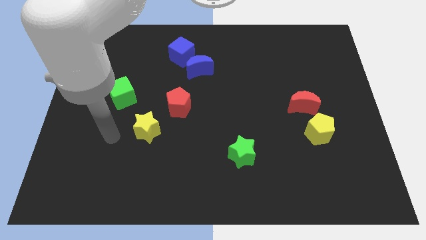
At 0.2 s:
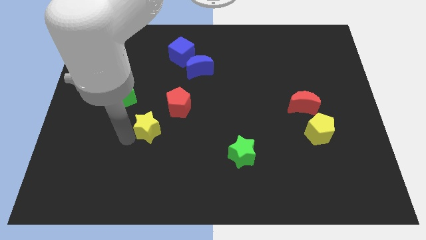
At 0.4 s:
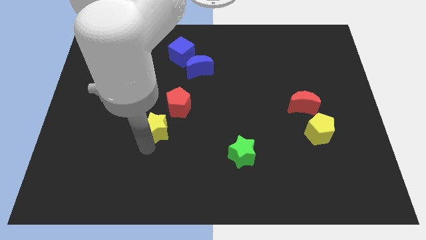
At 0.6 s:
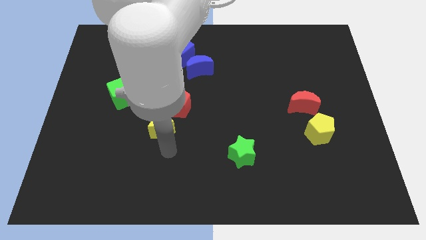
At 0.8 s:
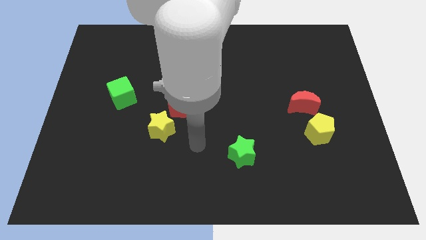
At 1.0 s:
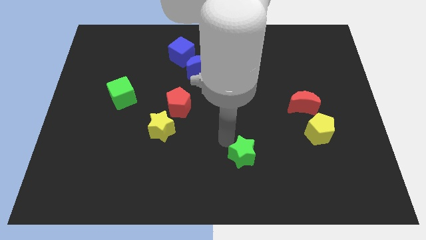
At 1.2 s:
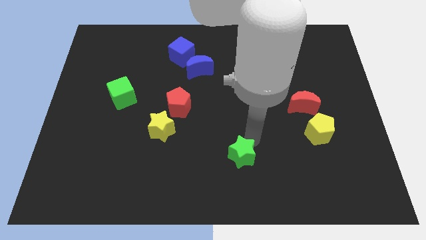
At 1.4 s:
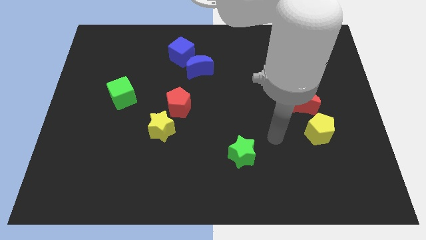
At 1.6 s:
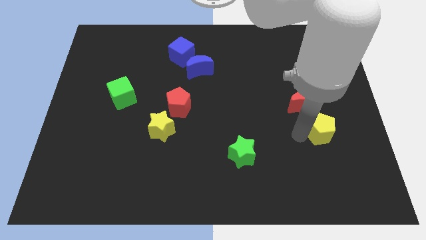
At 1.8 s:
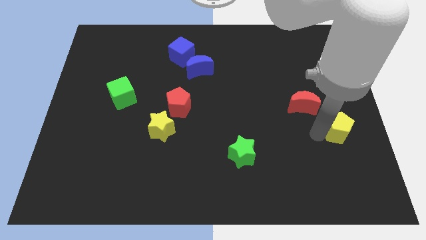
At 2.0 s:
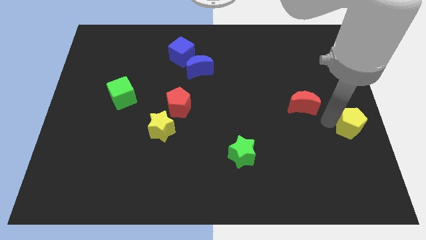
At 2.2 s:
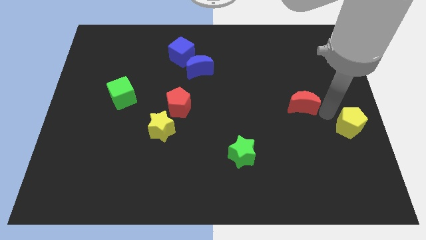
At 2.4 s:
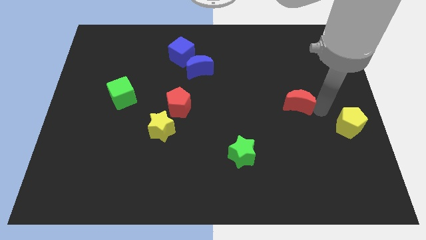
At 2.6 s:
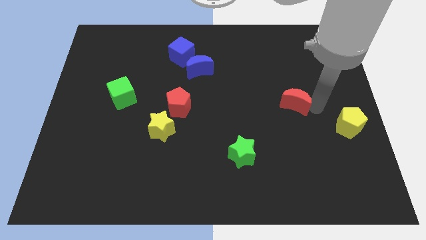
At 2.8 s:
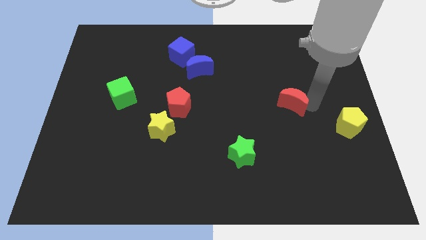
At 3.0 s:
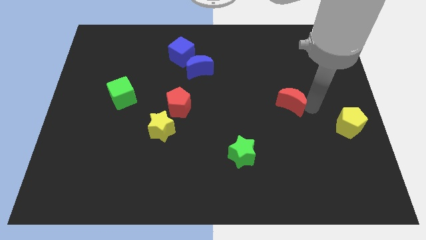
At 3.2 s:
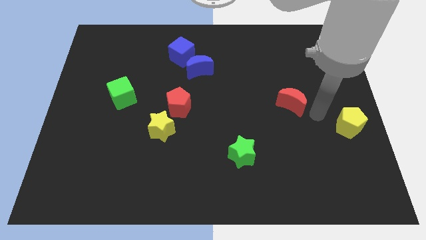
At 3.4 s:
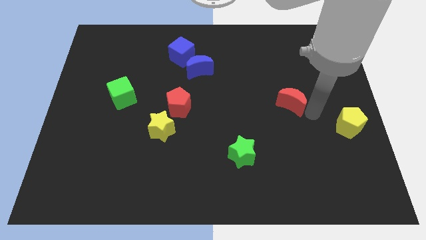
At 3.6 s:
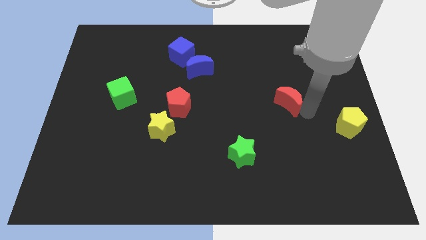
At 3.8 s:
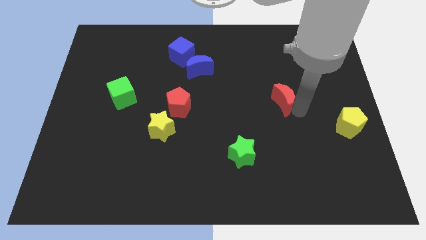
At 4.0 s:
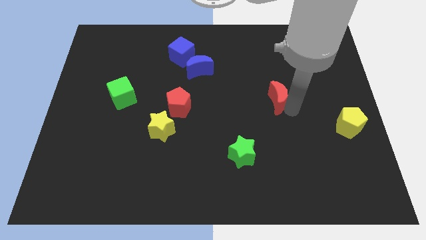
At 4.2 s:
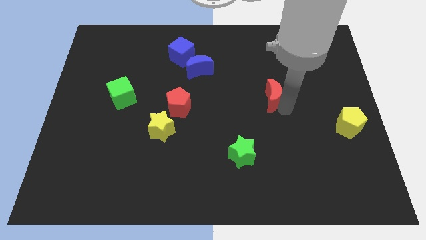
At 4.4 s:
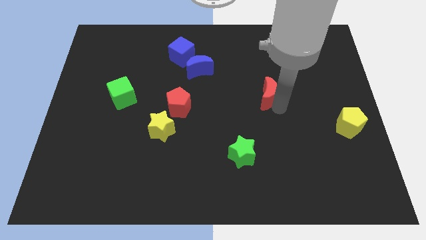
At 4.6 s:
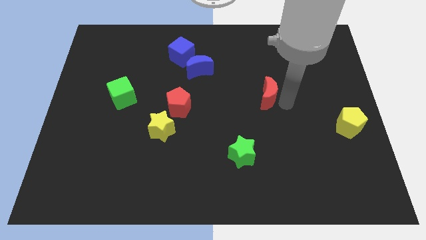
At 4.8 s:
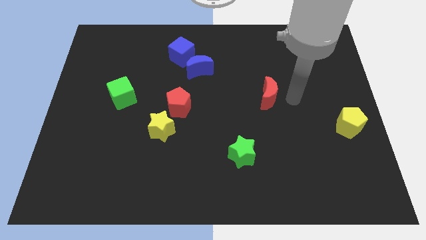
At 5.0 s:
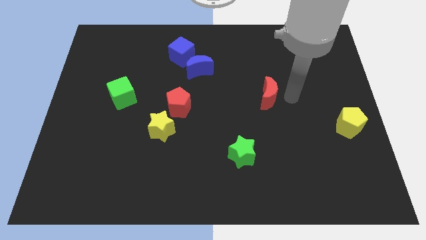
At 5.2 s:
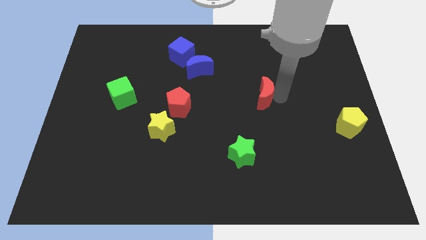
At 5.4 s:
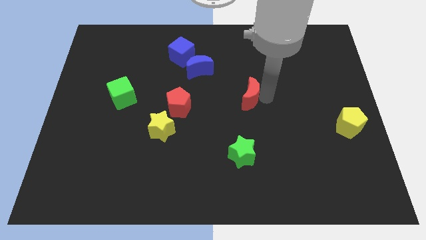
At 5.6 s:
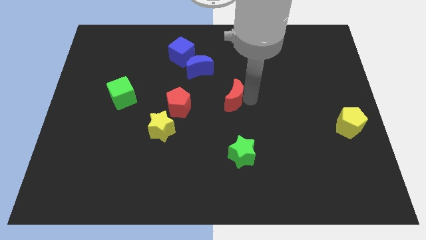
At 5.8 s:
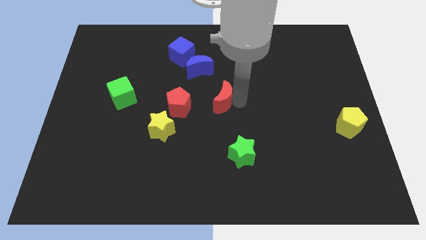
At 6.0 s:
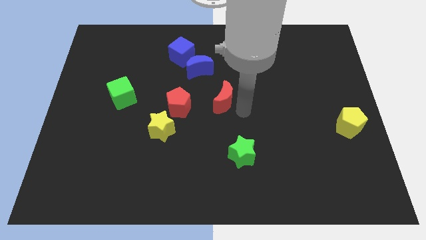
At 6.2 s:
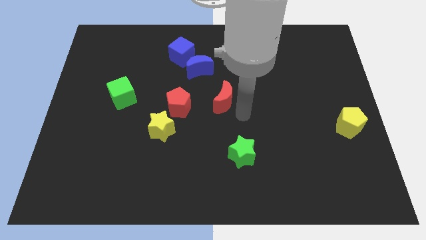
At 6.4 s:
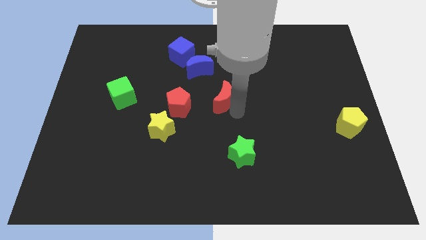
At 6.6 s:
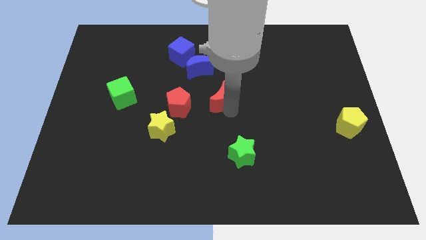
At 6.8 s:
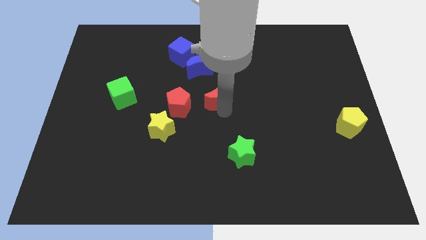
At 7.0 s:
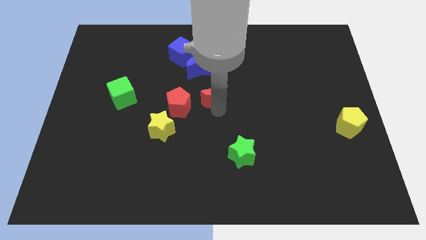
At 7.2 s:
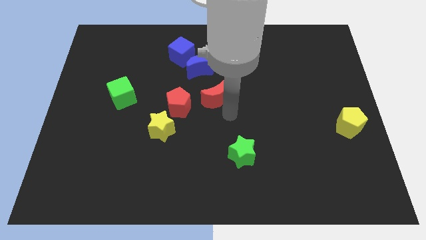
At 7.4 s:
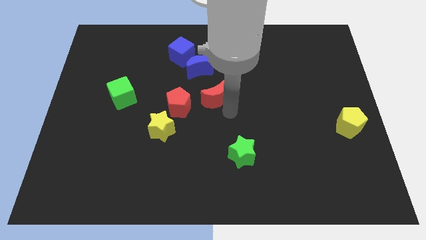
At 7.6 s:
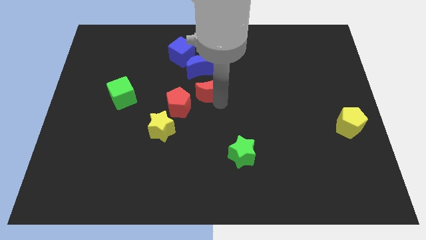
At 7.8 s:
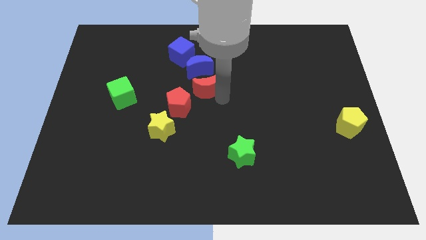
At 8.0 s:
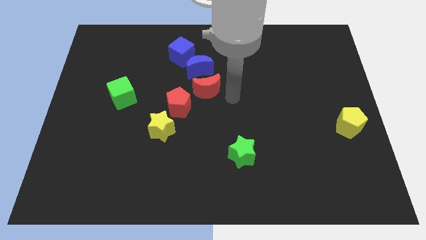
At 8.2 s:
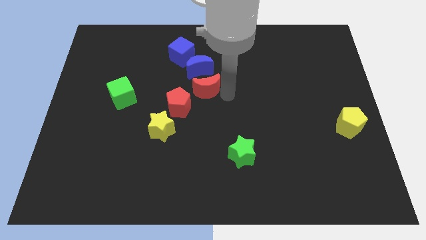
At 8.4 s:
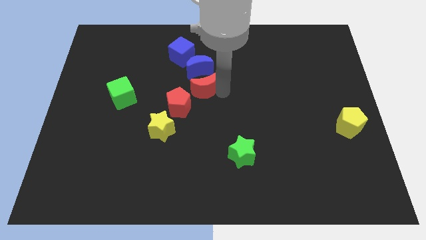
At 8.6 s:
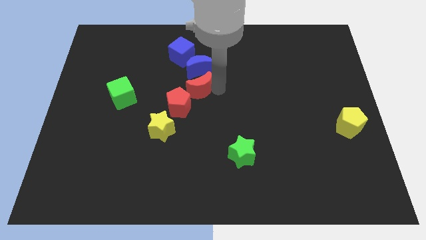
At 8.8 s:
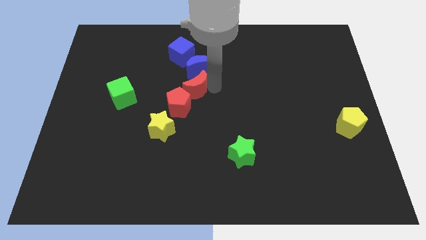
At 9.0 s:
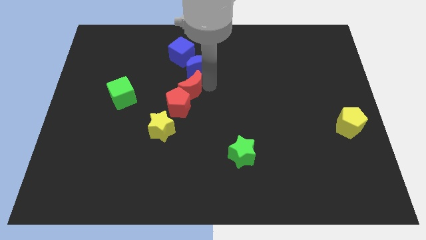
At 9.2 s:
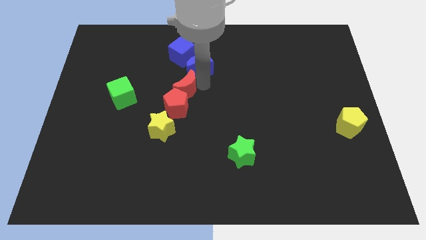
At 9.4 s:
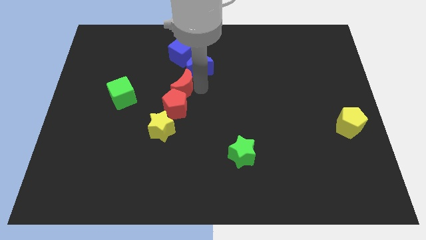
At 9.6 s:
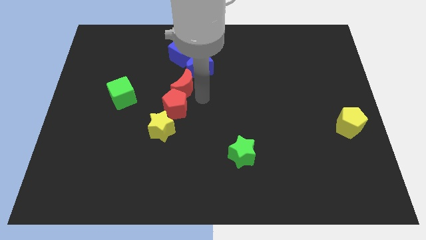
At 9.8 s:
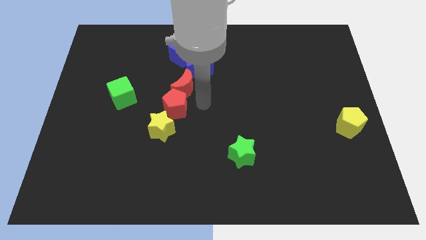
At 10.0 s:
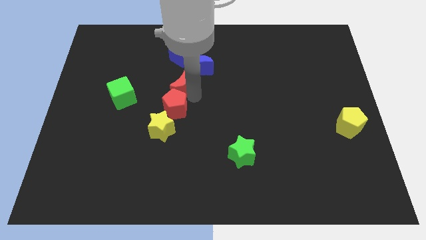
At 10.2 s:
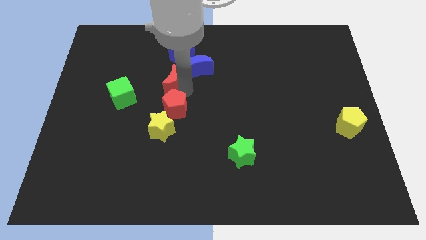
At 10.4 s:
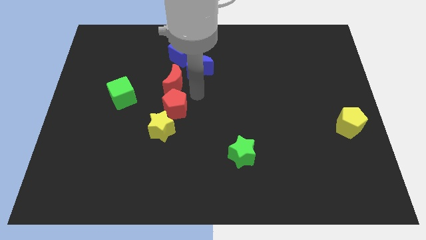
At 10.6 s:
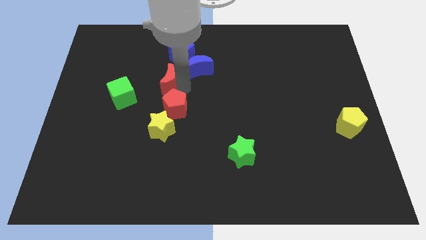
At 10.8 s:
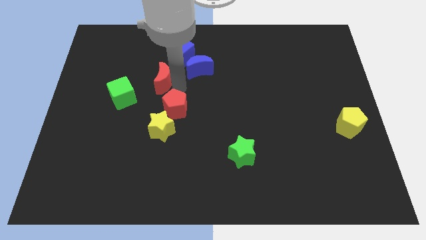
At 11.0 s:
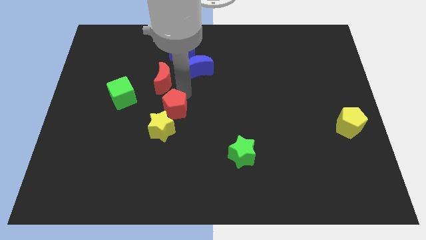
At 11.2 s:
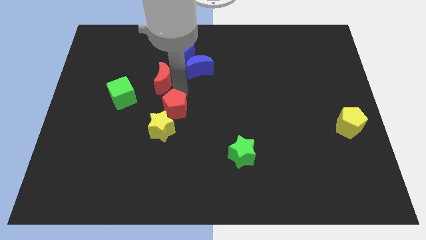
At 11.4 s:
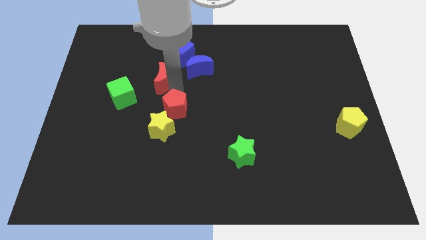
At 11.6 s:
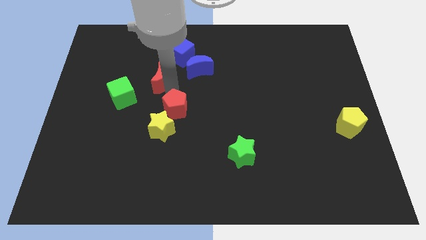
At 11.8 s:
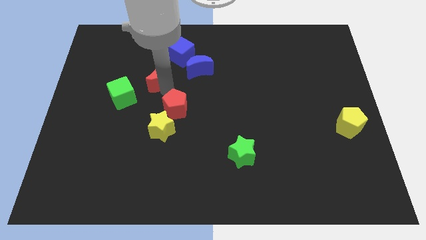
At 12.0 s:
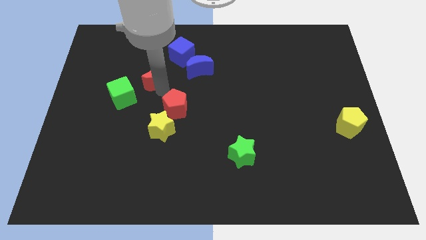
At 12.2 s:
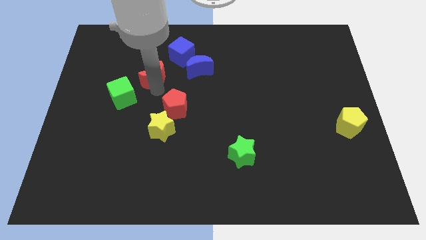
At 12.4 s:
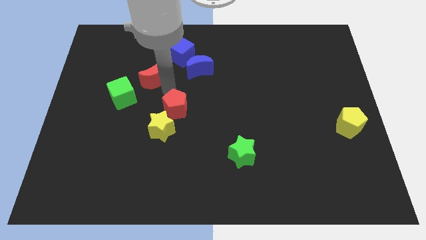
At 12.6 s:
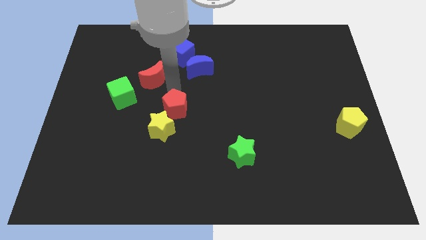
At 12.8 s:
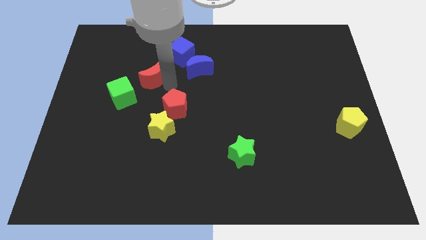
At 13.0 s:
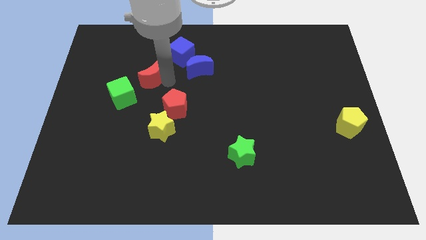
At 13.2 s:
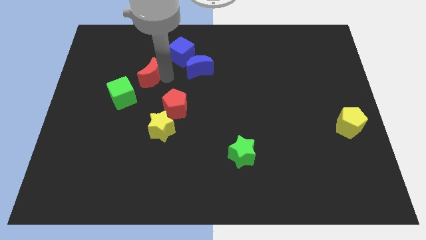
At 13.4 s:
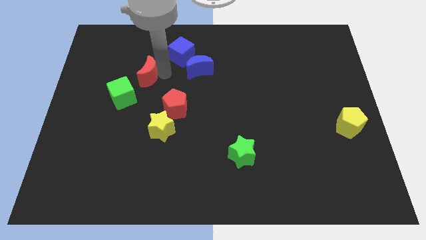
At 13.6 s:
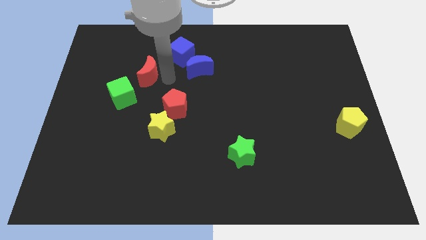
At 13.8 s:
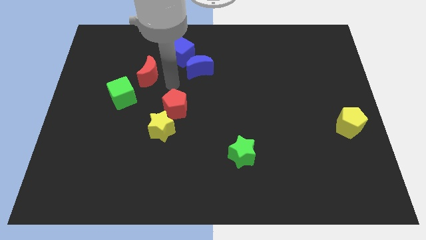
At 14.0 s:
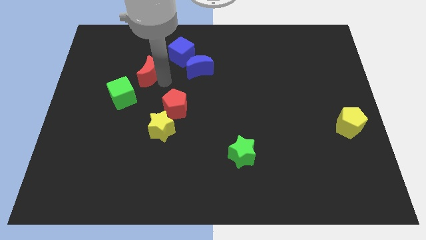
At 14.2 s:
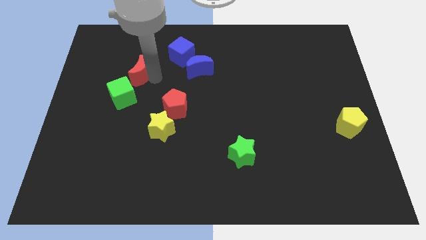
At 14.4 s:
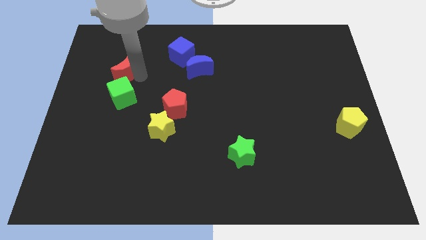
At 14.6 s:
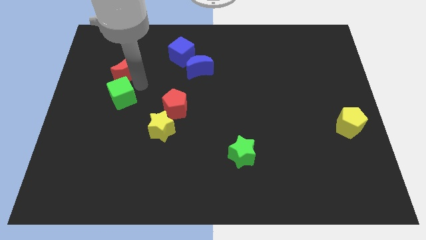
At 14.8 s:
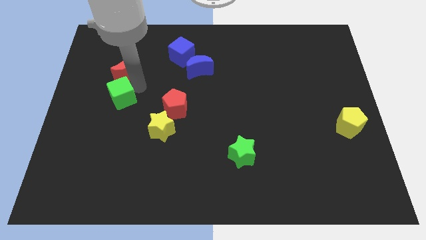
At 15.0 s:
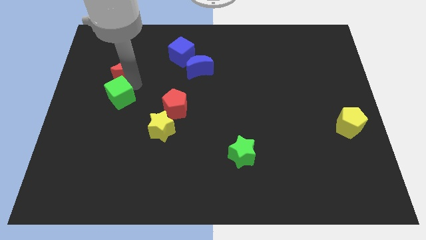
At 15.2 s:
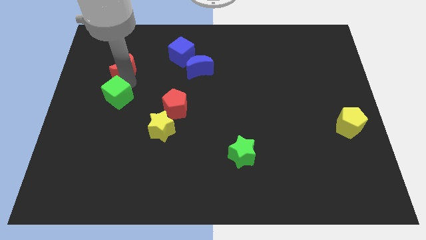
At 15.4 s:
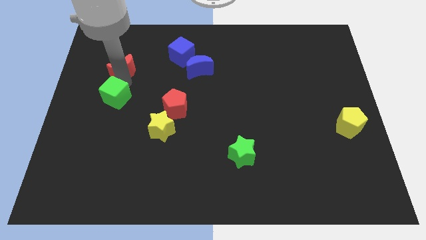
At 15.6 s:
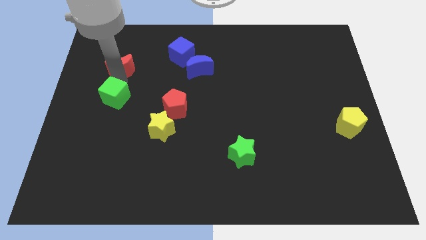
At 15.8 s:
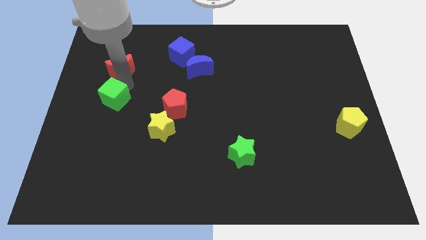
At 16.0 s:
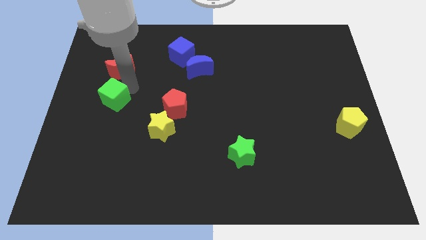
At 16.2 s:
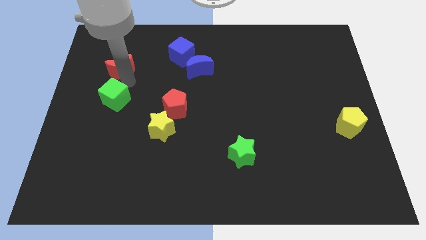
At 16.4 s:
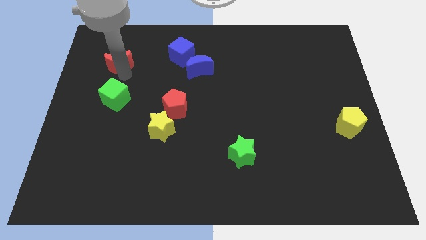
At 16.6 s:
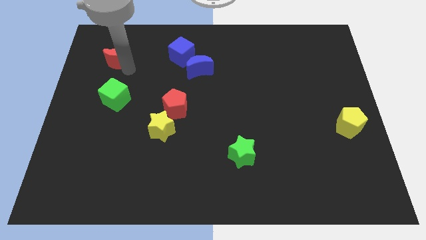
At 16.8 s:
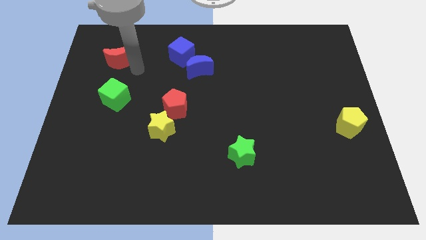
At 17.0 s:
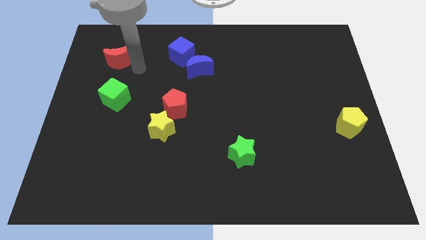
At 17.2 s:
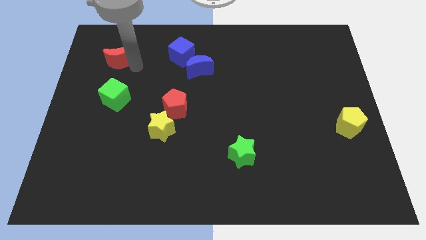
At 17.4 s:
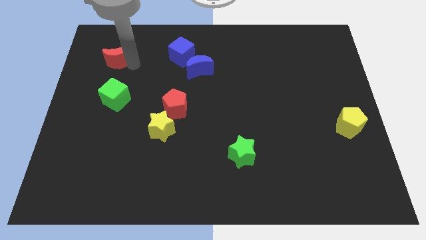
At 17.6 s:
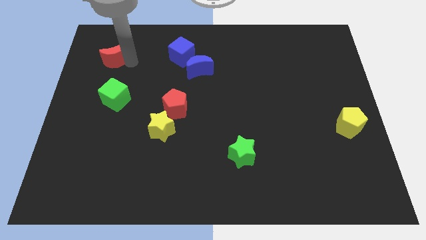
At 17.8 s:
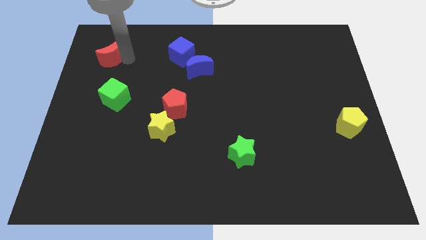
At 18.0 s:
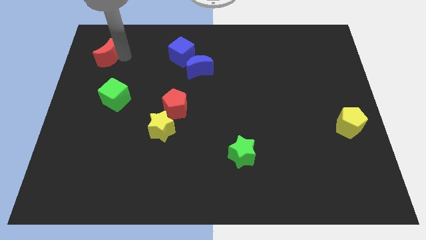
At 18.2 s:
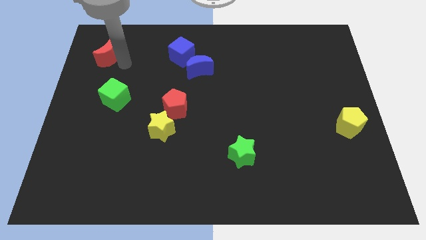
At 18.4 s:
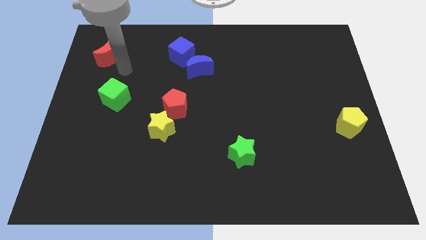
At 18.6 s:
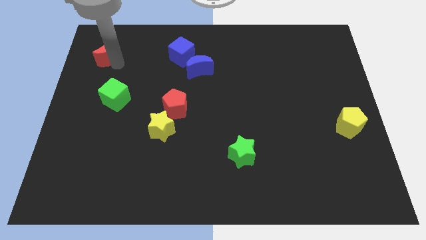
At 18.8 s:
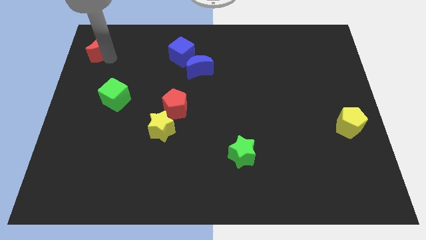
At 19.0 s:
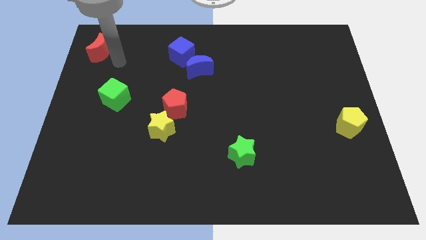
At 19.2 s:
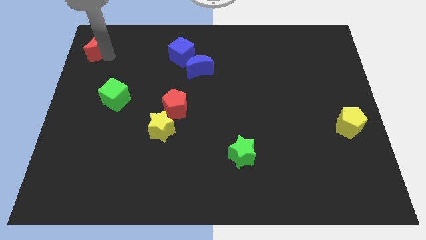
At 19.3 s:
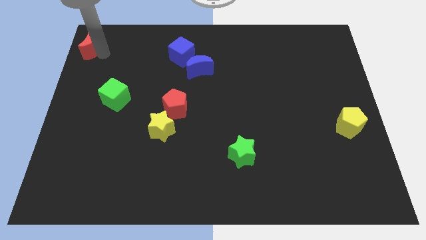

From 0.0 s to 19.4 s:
slide the red moon to the top left
